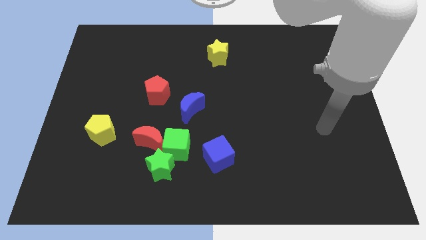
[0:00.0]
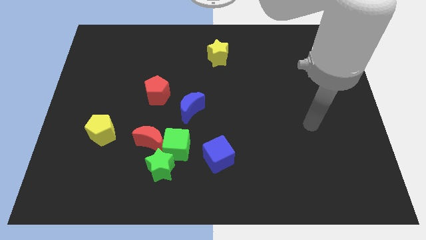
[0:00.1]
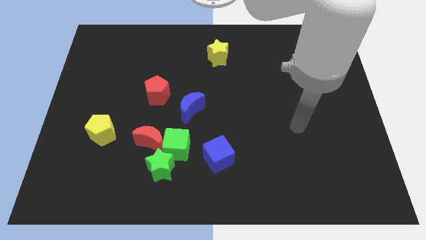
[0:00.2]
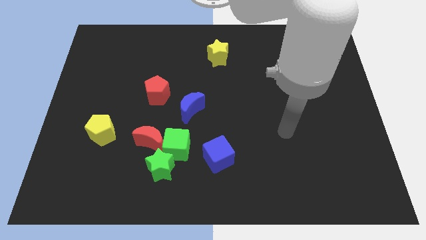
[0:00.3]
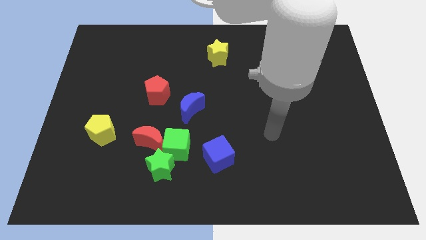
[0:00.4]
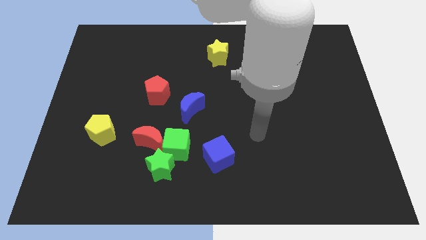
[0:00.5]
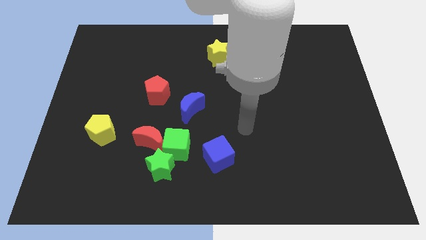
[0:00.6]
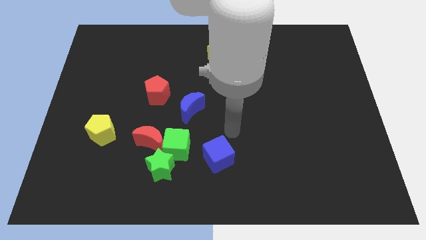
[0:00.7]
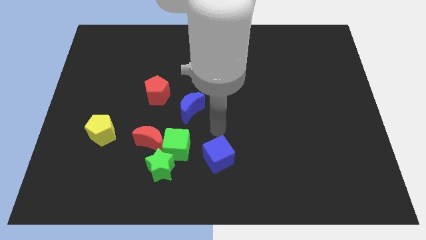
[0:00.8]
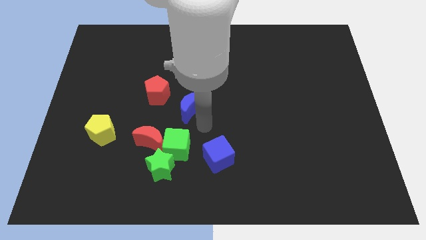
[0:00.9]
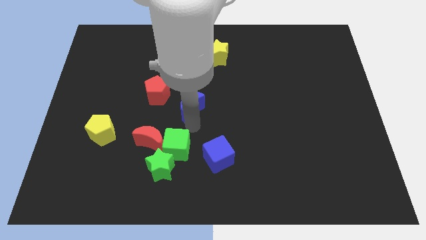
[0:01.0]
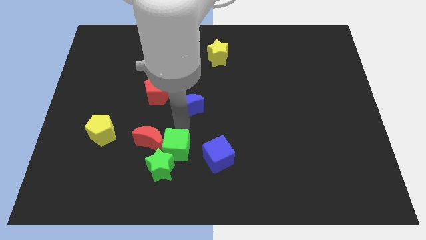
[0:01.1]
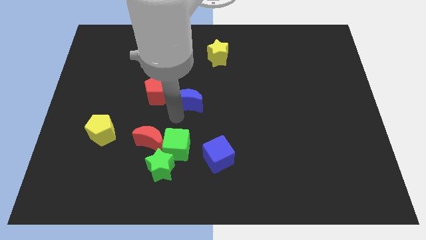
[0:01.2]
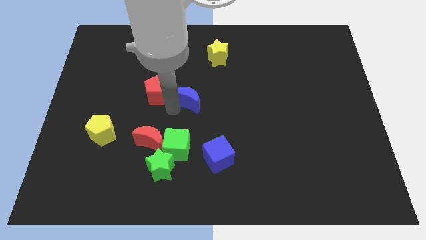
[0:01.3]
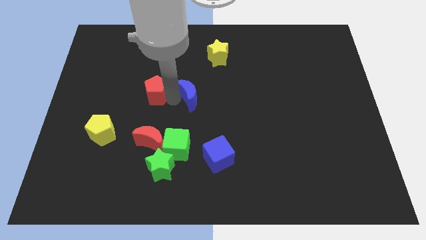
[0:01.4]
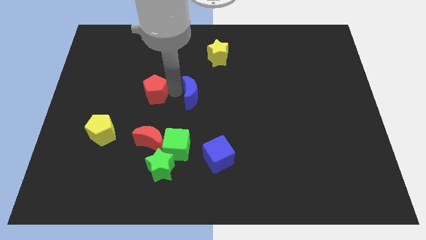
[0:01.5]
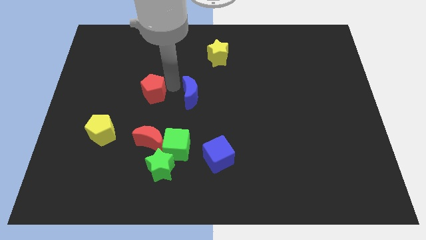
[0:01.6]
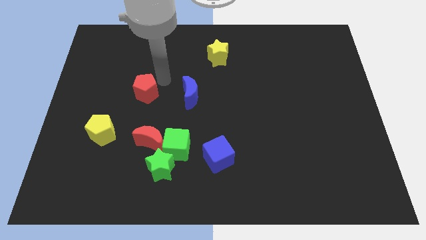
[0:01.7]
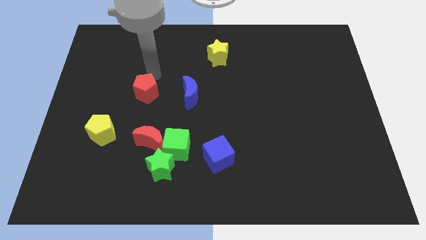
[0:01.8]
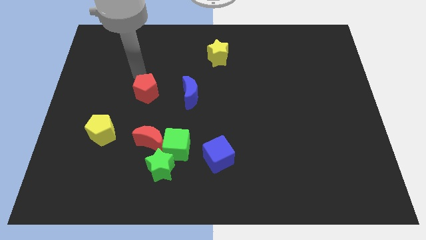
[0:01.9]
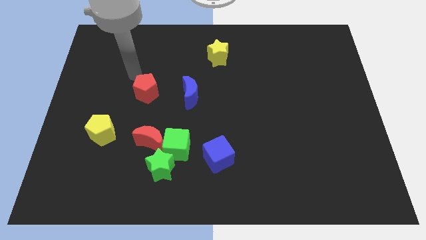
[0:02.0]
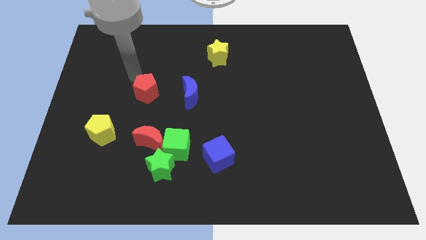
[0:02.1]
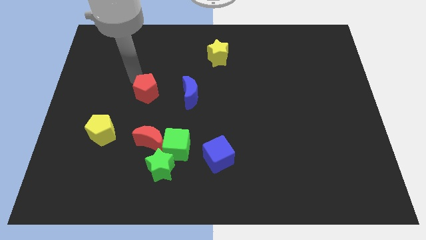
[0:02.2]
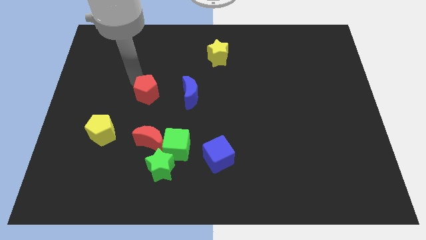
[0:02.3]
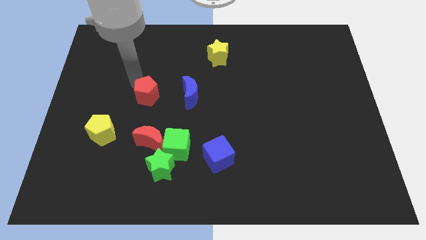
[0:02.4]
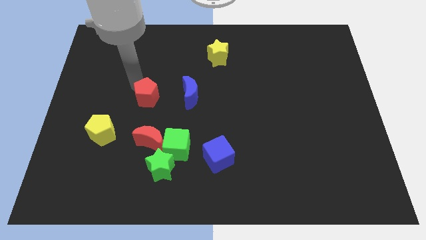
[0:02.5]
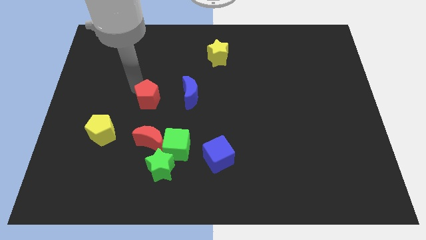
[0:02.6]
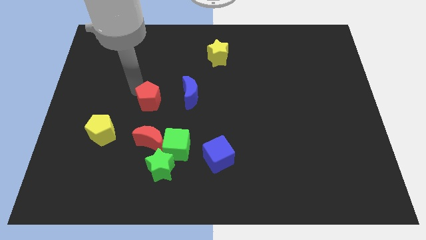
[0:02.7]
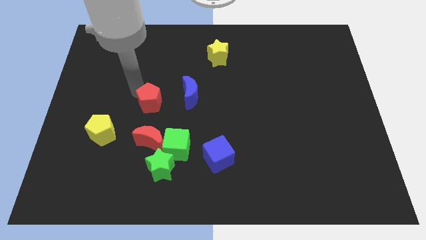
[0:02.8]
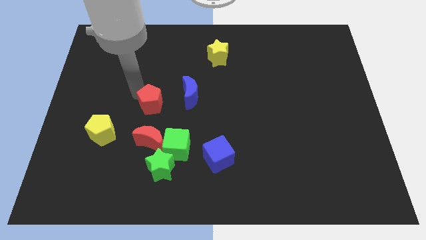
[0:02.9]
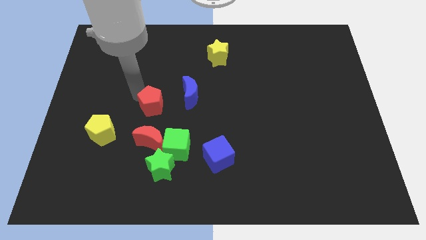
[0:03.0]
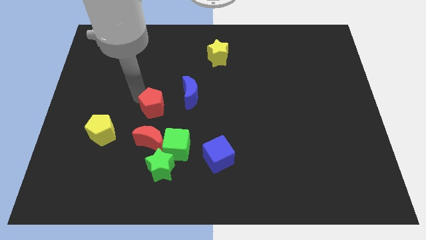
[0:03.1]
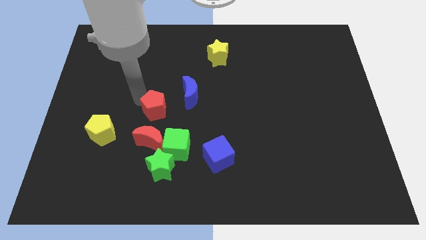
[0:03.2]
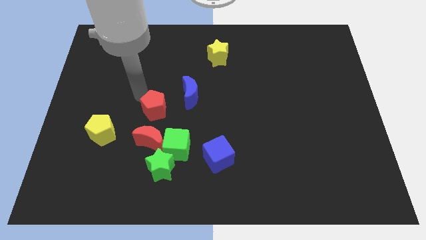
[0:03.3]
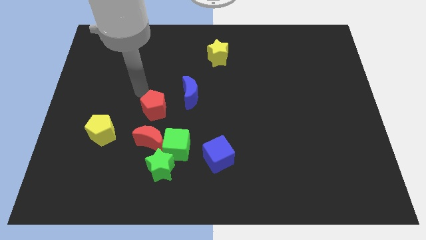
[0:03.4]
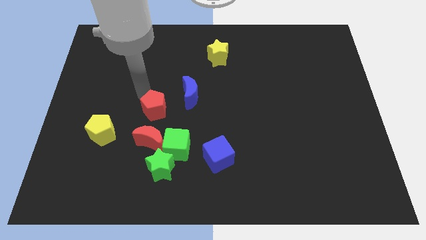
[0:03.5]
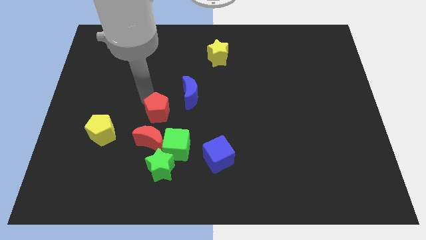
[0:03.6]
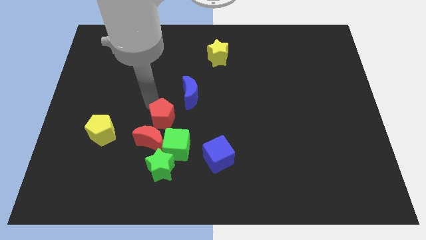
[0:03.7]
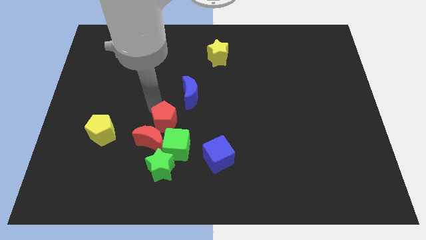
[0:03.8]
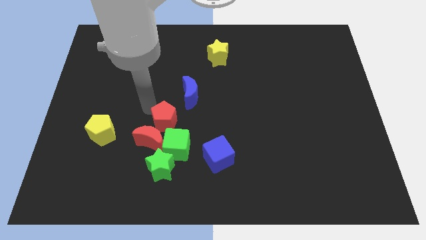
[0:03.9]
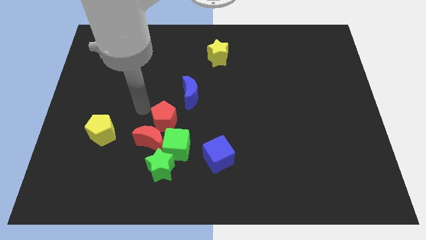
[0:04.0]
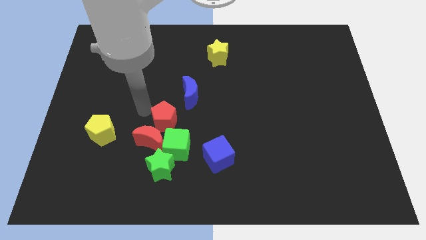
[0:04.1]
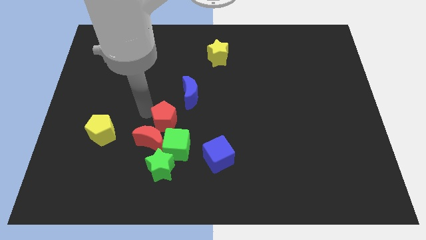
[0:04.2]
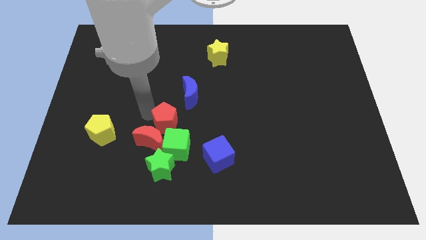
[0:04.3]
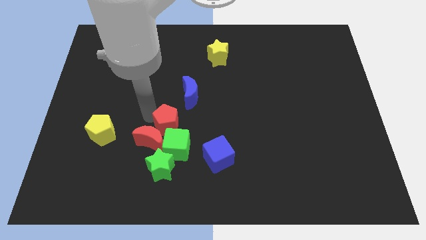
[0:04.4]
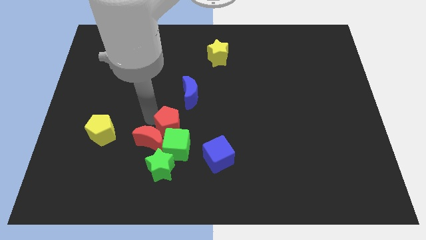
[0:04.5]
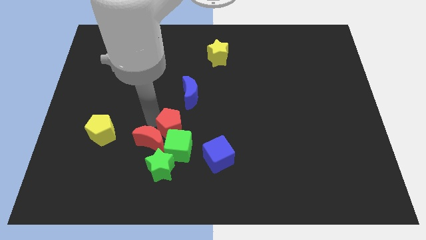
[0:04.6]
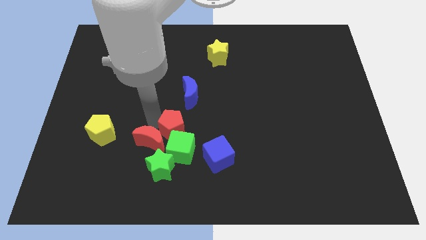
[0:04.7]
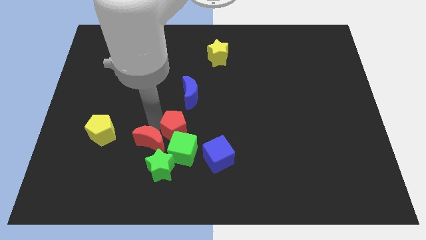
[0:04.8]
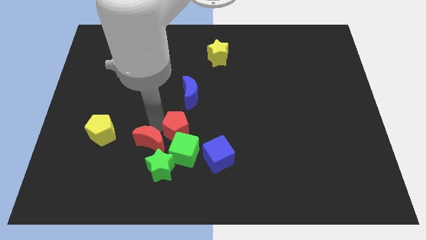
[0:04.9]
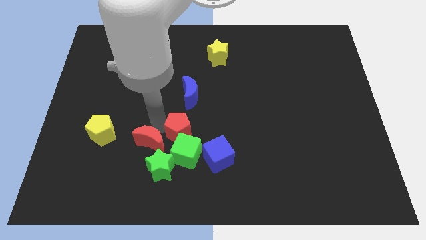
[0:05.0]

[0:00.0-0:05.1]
move the red pentagon to the top right side of the green star

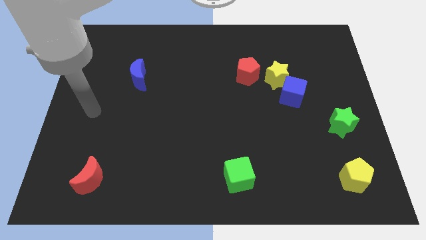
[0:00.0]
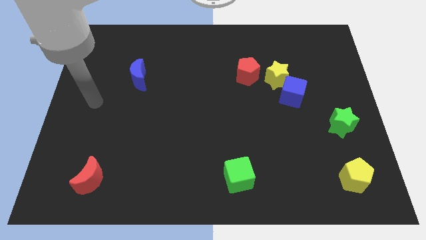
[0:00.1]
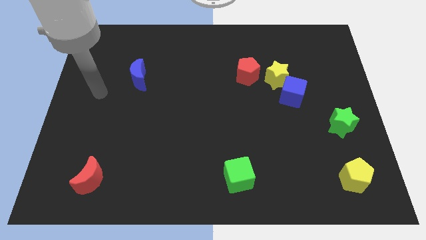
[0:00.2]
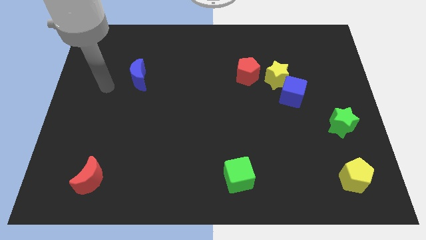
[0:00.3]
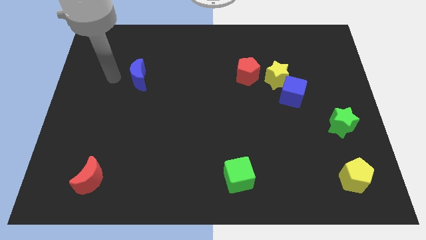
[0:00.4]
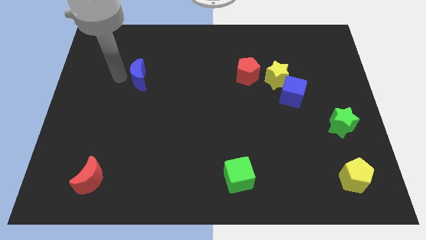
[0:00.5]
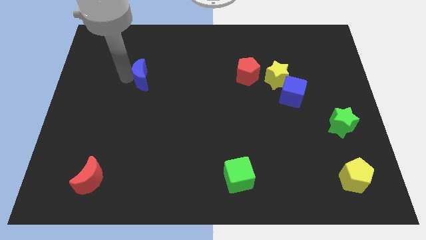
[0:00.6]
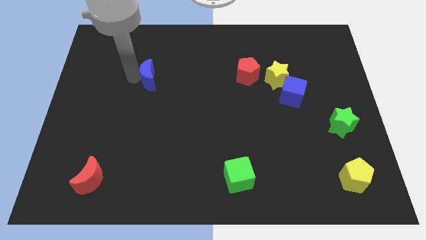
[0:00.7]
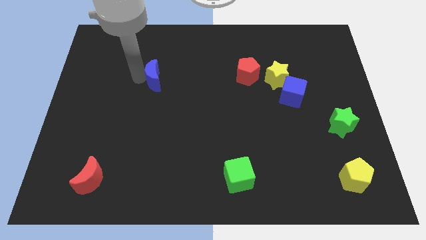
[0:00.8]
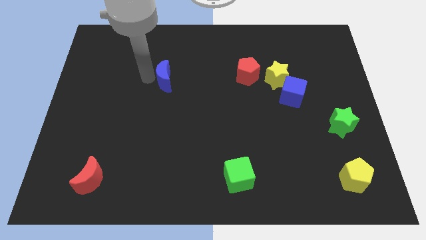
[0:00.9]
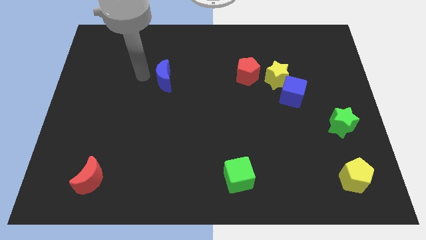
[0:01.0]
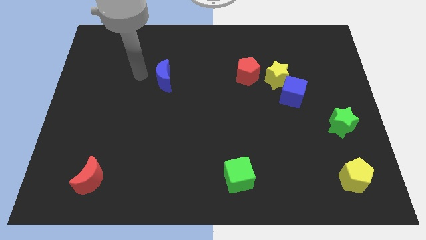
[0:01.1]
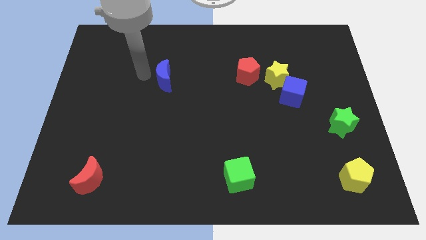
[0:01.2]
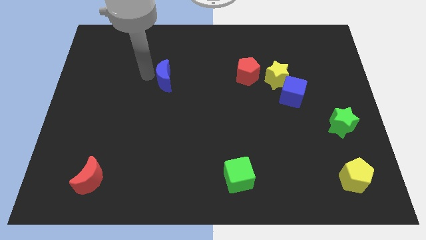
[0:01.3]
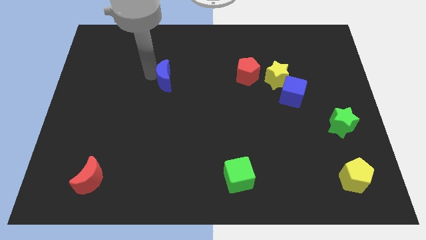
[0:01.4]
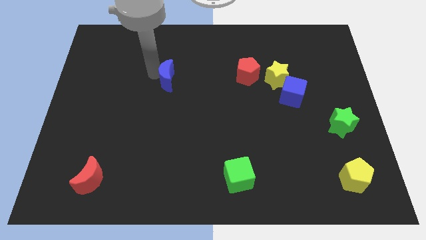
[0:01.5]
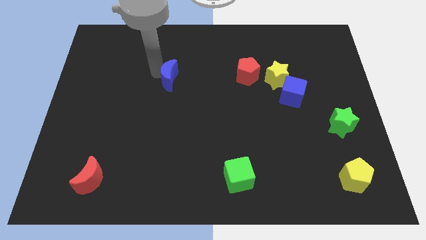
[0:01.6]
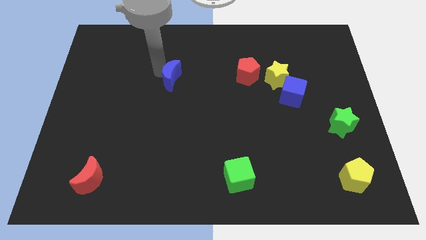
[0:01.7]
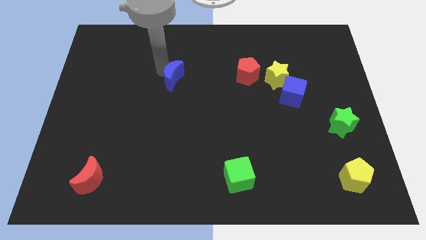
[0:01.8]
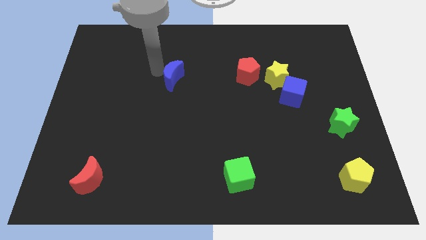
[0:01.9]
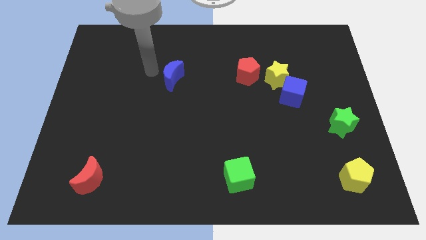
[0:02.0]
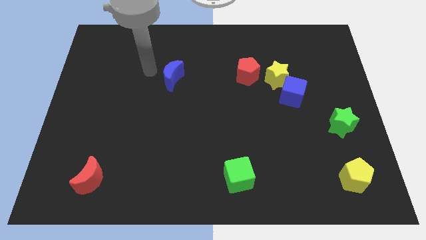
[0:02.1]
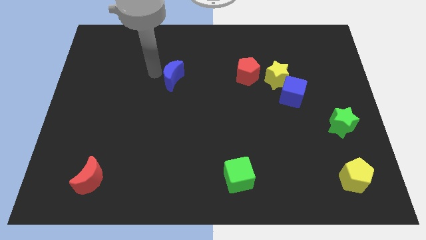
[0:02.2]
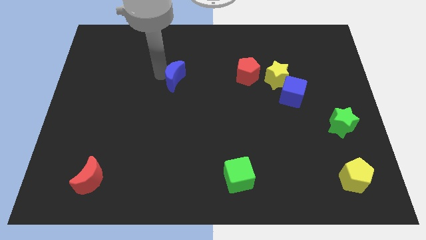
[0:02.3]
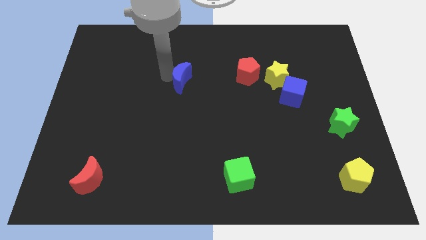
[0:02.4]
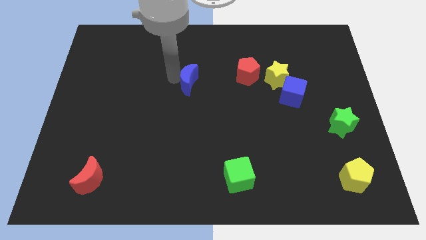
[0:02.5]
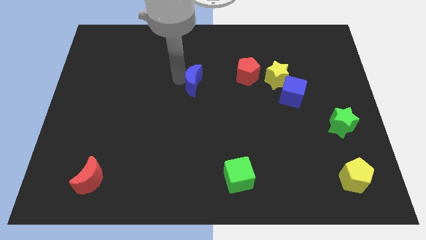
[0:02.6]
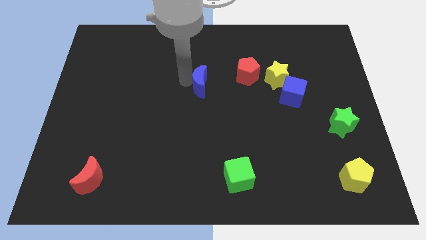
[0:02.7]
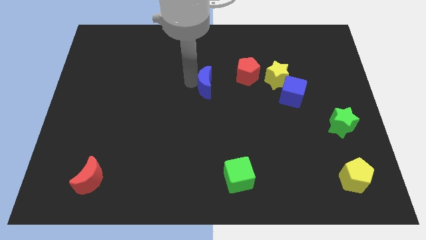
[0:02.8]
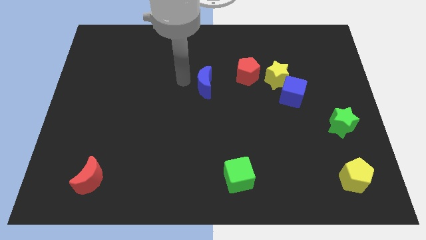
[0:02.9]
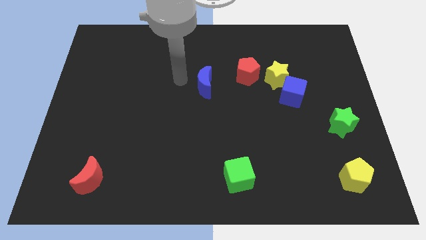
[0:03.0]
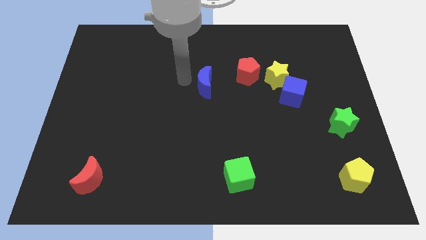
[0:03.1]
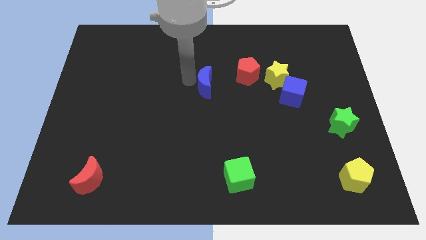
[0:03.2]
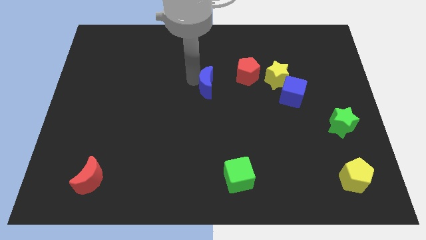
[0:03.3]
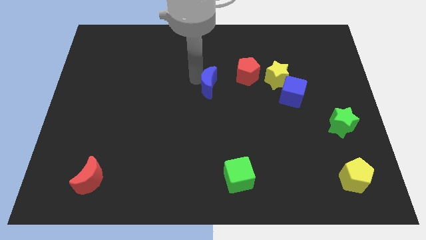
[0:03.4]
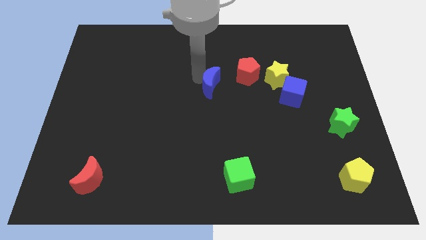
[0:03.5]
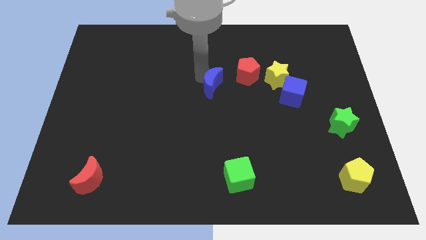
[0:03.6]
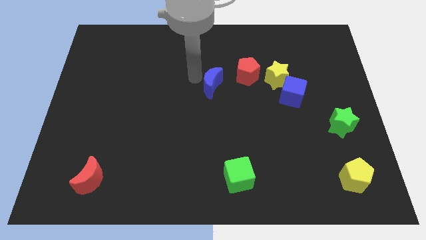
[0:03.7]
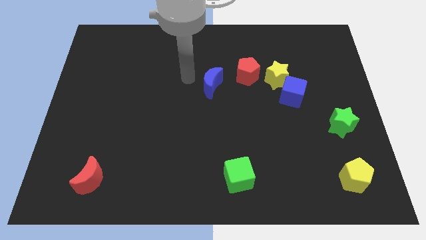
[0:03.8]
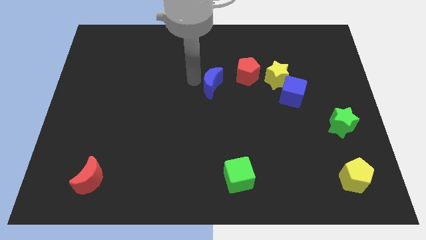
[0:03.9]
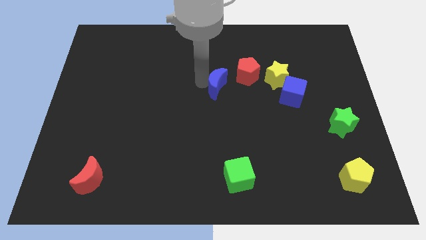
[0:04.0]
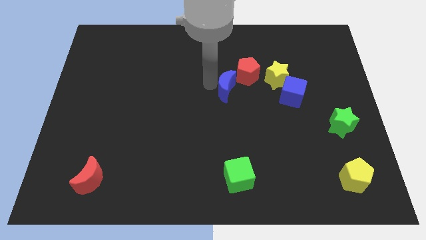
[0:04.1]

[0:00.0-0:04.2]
put the blue moon just left of the blue cube
